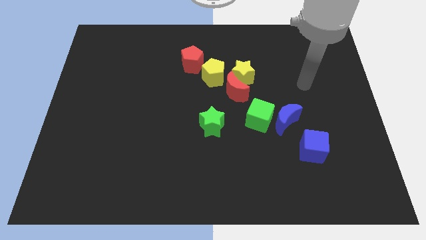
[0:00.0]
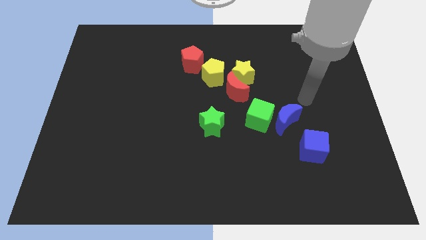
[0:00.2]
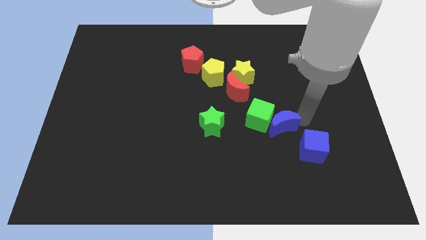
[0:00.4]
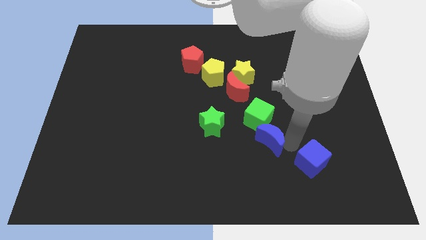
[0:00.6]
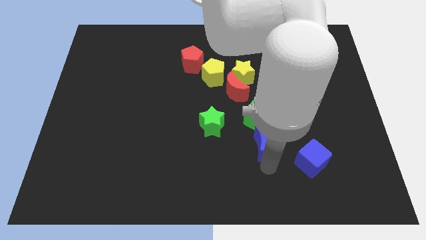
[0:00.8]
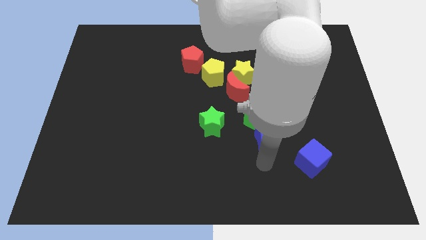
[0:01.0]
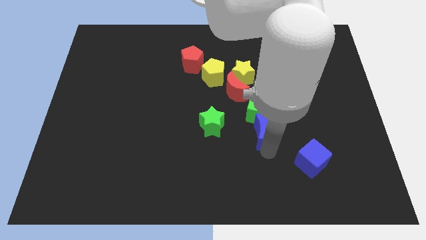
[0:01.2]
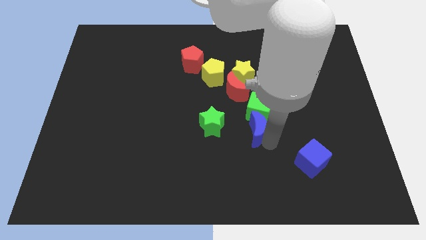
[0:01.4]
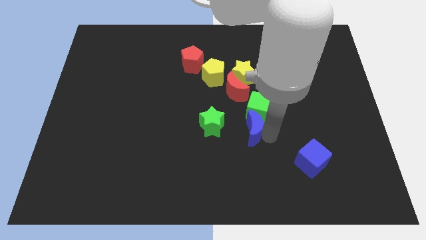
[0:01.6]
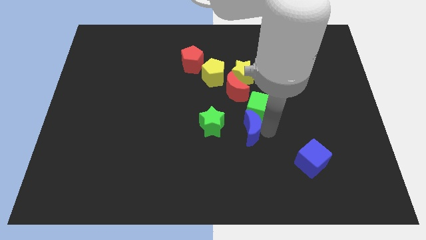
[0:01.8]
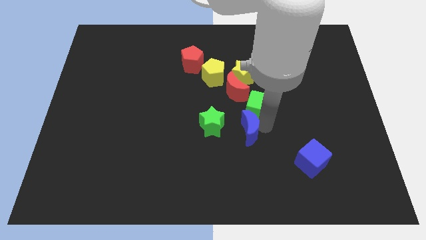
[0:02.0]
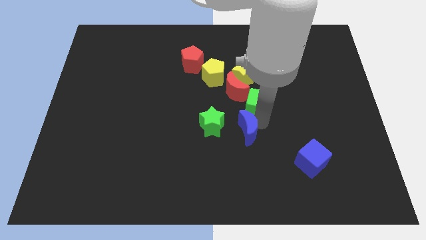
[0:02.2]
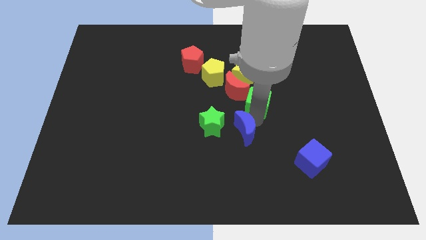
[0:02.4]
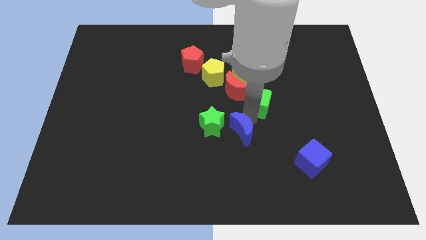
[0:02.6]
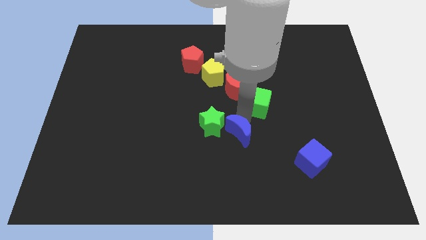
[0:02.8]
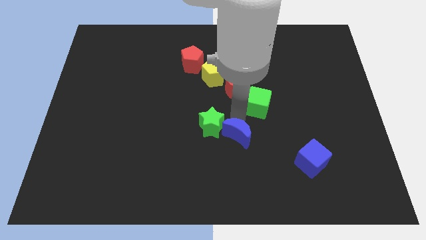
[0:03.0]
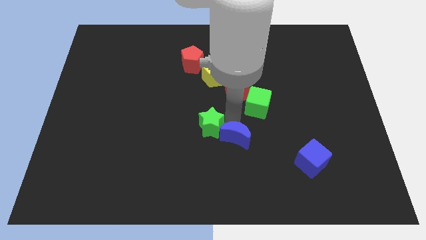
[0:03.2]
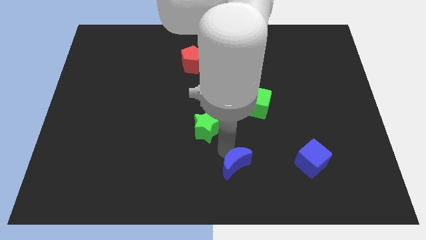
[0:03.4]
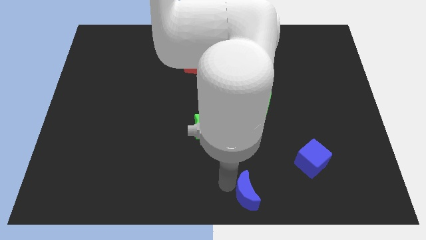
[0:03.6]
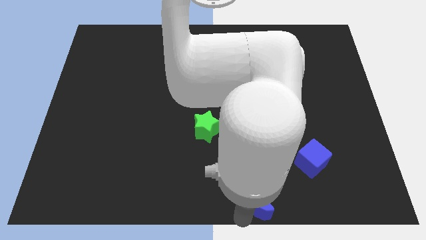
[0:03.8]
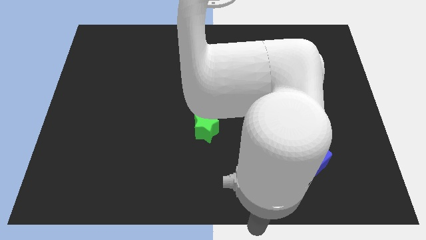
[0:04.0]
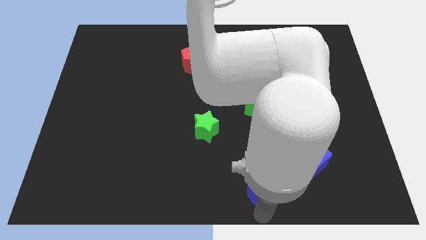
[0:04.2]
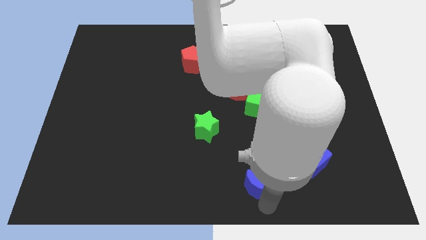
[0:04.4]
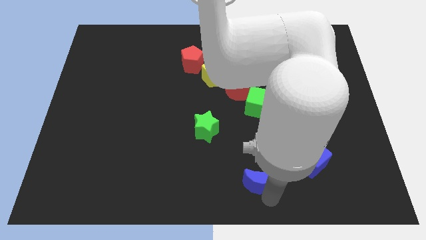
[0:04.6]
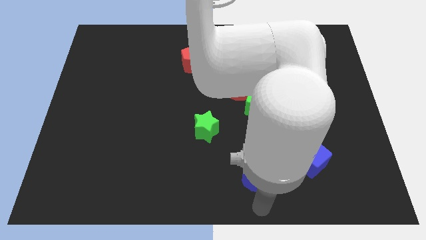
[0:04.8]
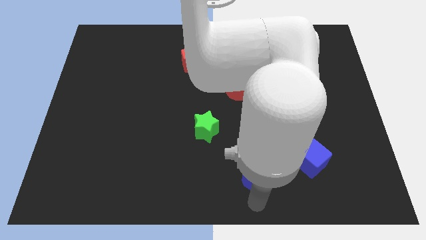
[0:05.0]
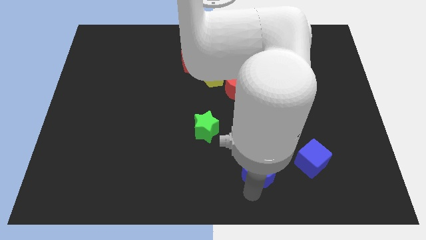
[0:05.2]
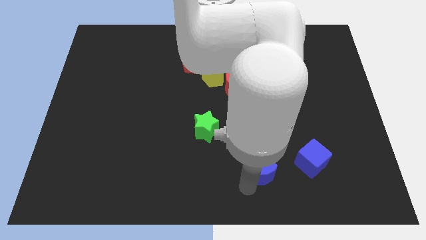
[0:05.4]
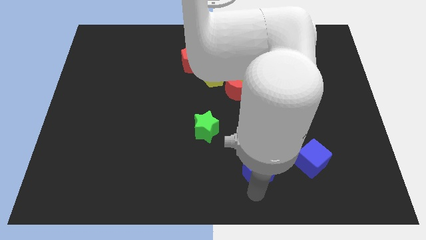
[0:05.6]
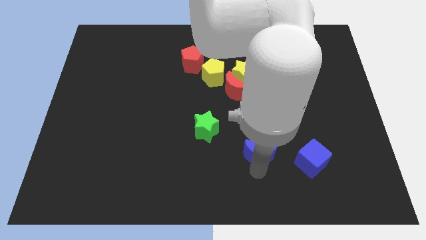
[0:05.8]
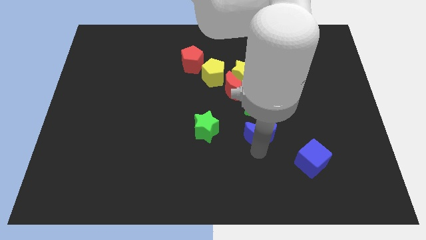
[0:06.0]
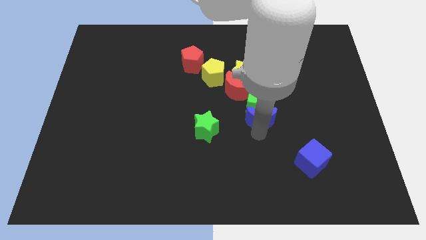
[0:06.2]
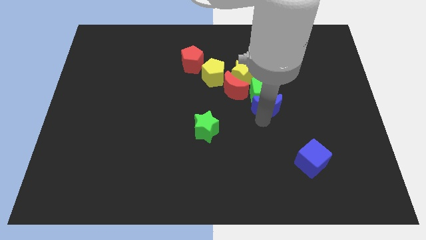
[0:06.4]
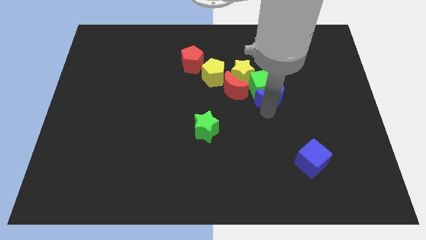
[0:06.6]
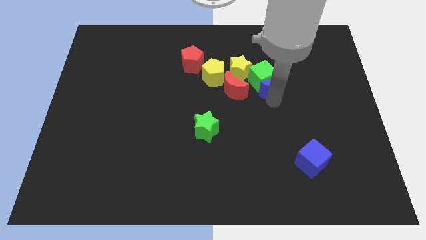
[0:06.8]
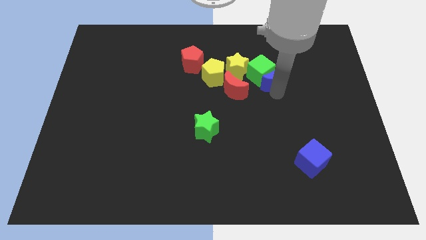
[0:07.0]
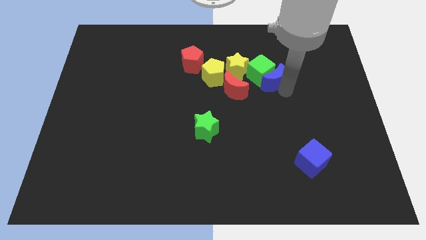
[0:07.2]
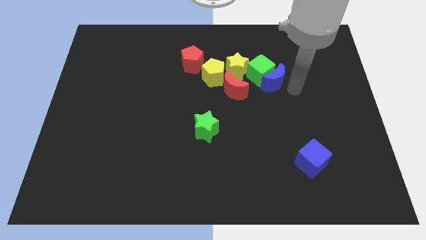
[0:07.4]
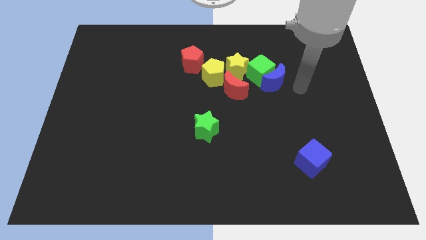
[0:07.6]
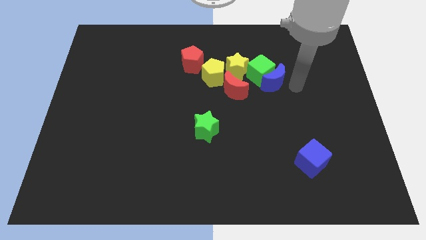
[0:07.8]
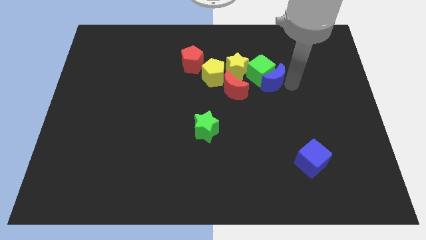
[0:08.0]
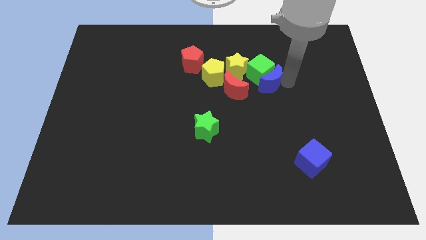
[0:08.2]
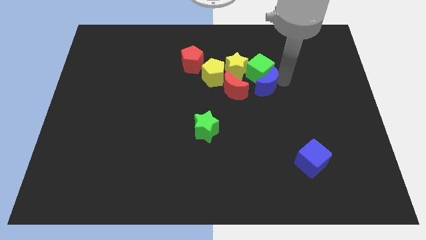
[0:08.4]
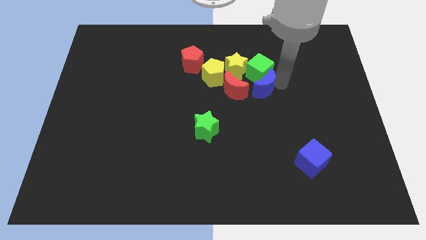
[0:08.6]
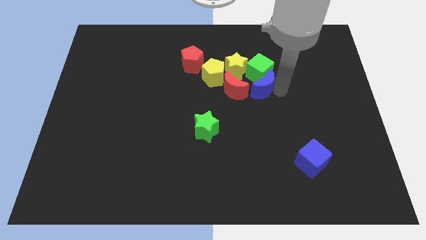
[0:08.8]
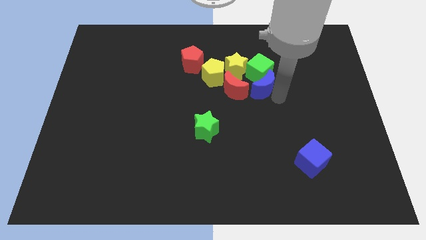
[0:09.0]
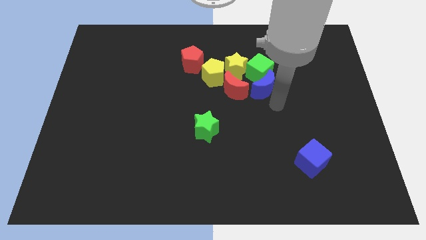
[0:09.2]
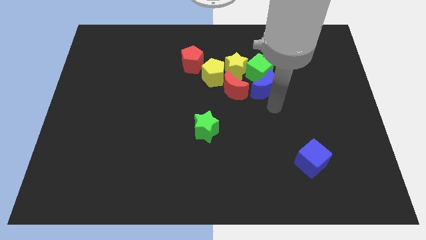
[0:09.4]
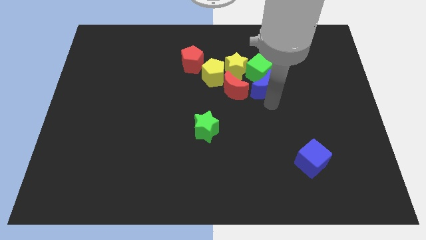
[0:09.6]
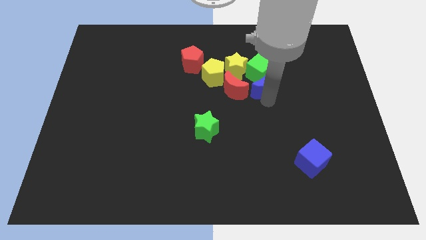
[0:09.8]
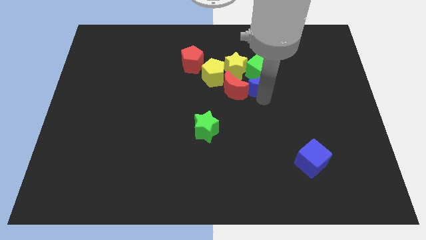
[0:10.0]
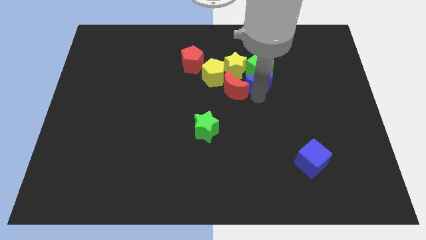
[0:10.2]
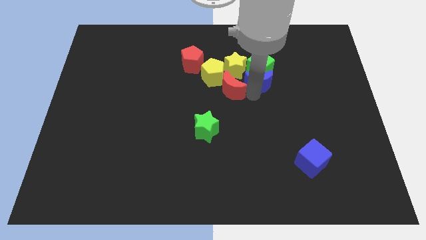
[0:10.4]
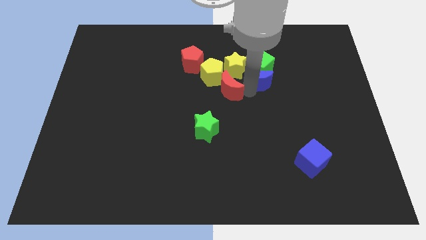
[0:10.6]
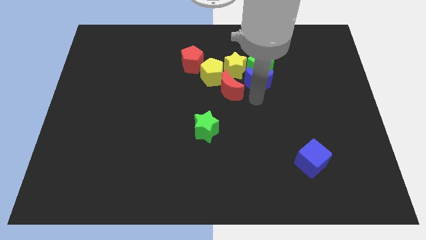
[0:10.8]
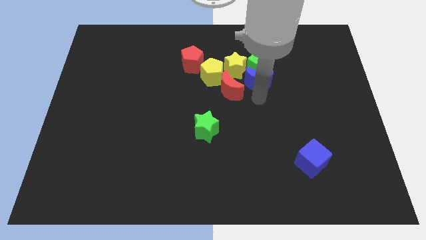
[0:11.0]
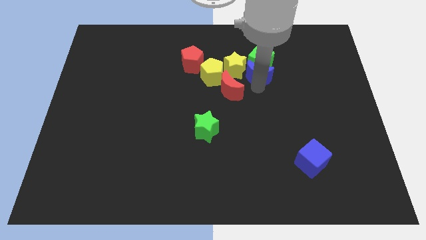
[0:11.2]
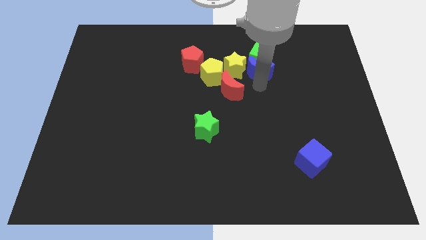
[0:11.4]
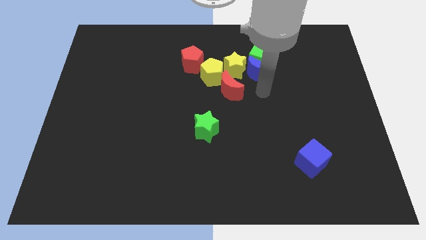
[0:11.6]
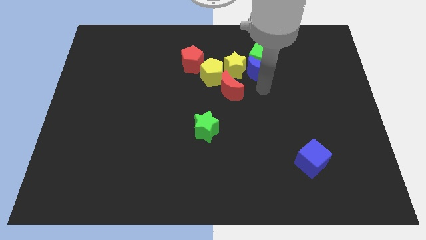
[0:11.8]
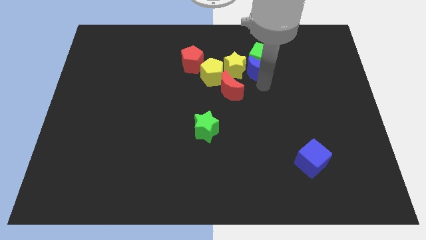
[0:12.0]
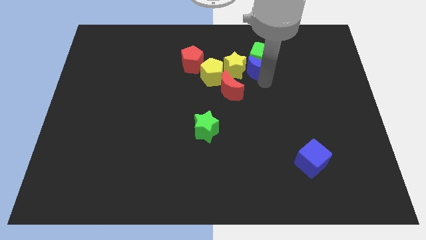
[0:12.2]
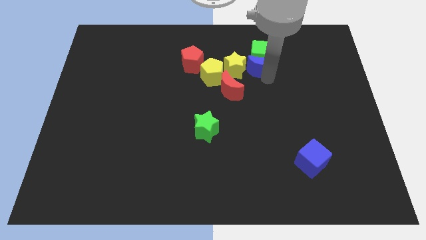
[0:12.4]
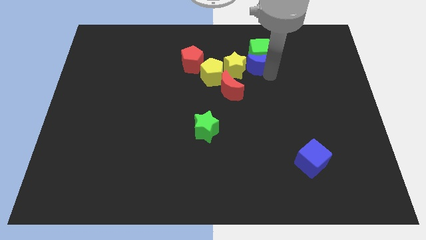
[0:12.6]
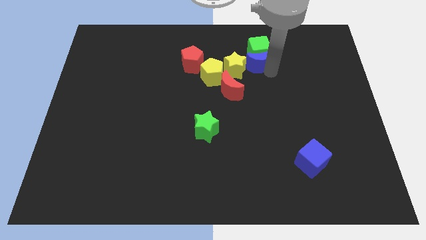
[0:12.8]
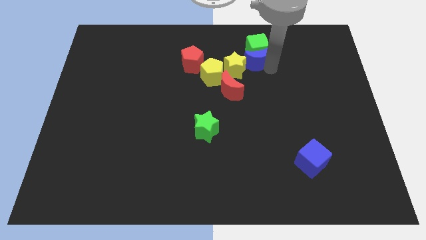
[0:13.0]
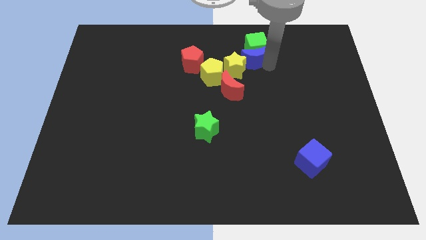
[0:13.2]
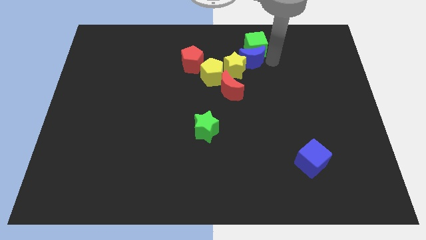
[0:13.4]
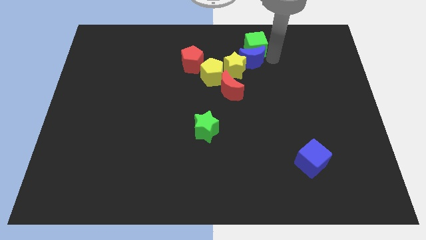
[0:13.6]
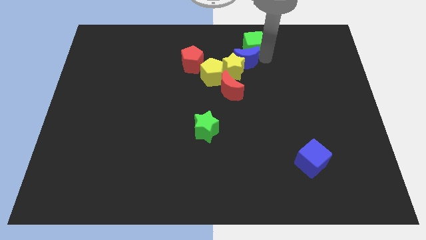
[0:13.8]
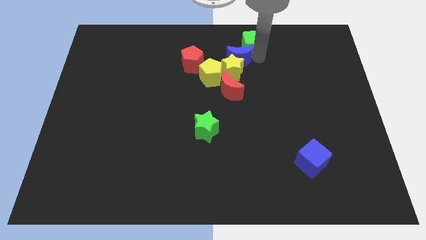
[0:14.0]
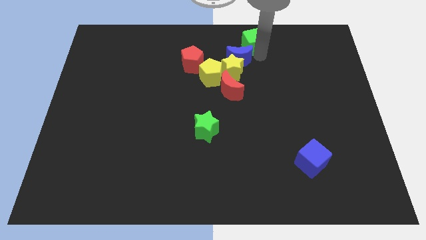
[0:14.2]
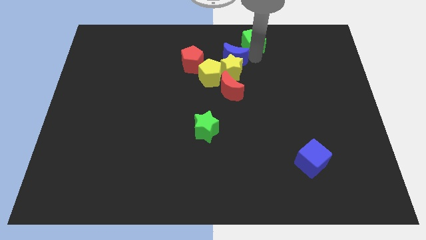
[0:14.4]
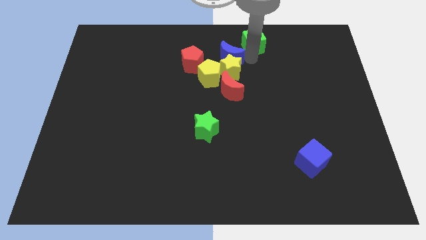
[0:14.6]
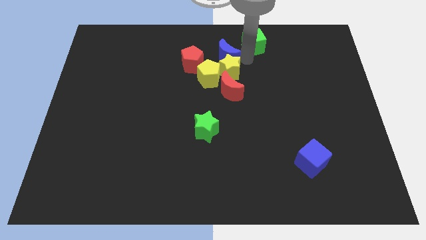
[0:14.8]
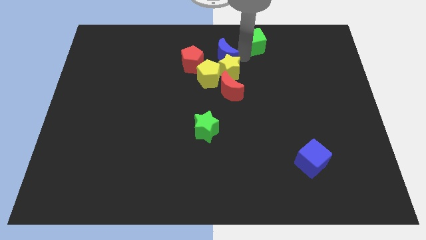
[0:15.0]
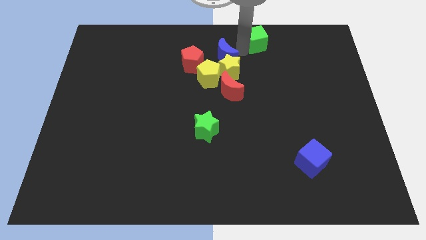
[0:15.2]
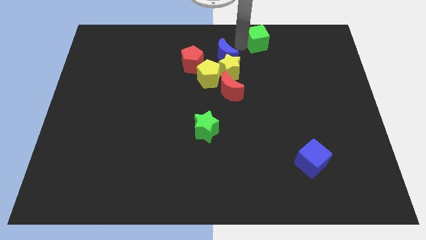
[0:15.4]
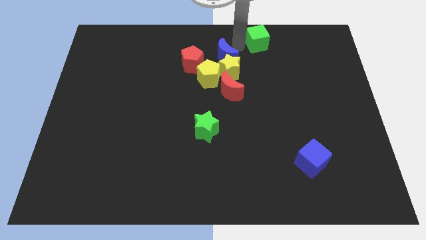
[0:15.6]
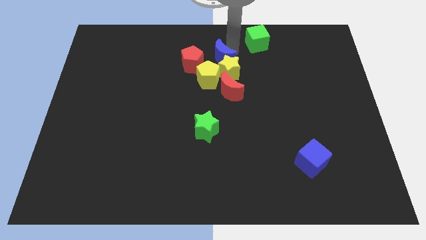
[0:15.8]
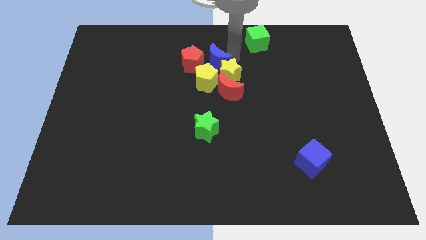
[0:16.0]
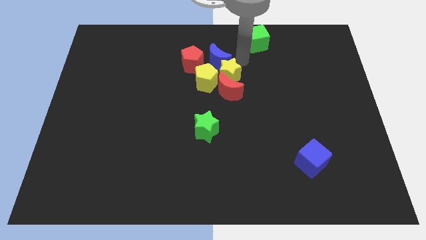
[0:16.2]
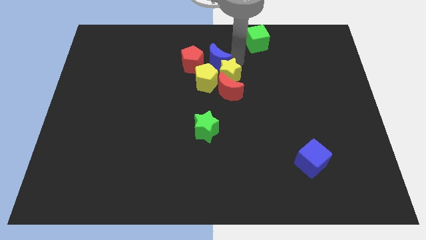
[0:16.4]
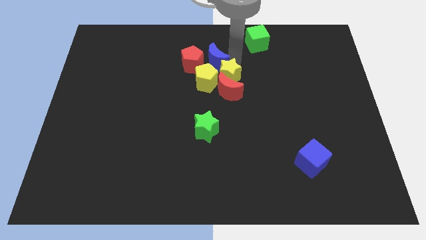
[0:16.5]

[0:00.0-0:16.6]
slide the blue moon to the red pentagon
